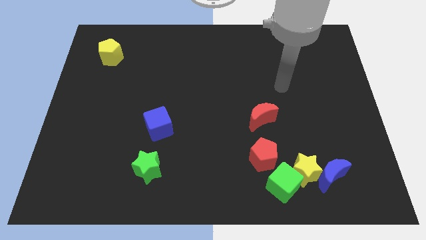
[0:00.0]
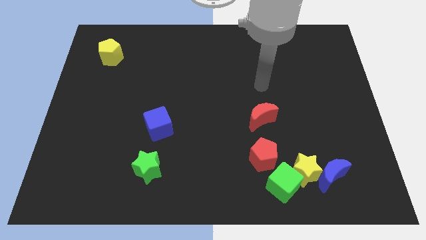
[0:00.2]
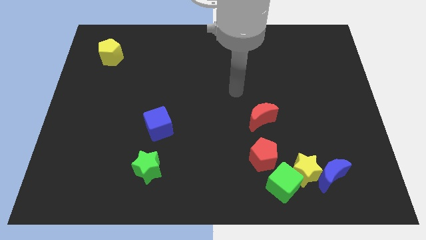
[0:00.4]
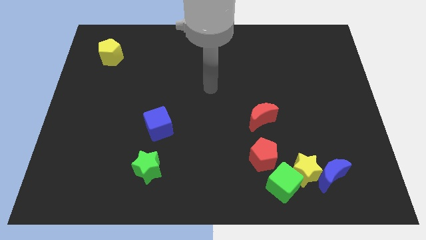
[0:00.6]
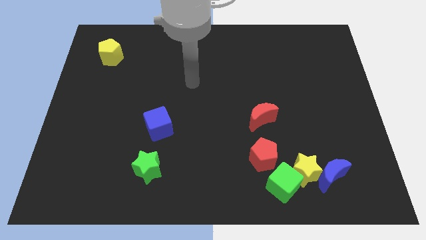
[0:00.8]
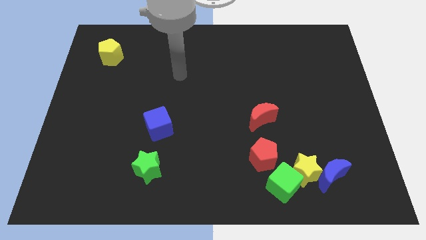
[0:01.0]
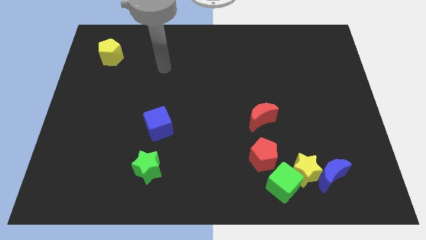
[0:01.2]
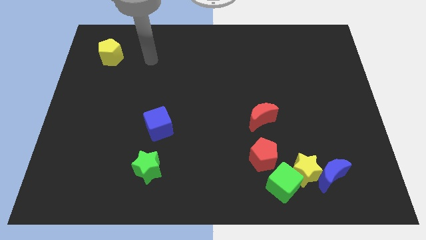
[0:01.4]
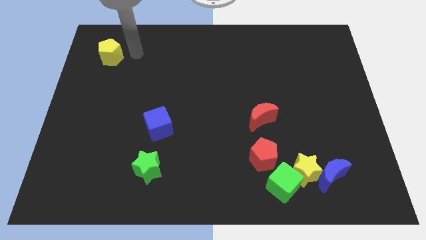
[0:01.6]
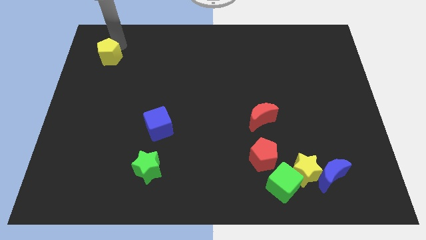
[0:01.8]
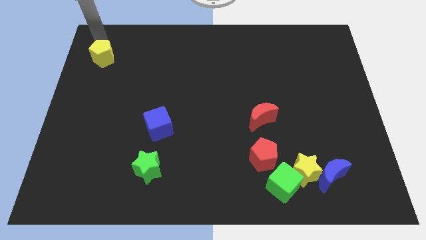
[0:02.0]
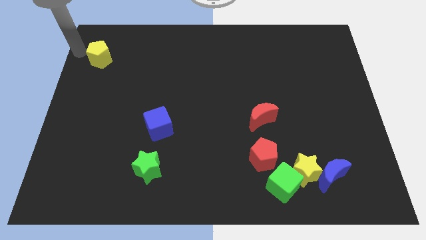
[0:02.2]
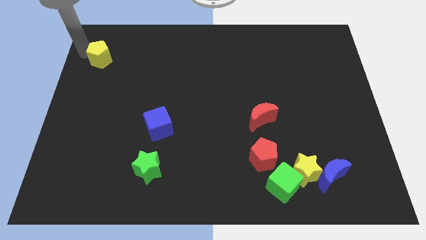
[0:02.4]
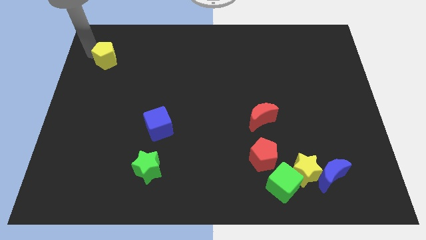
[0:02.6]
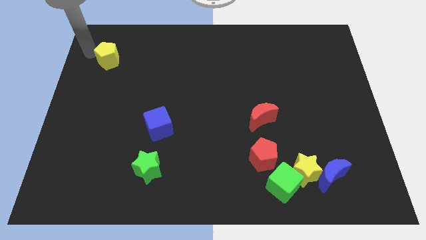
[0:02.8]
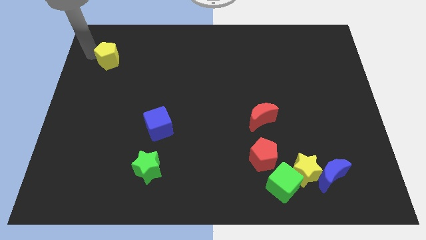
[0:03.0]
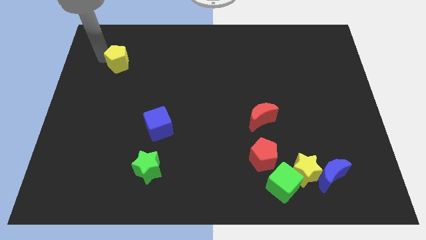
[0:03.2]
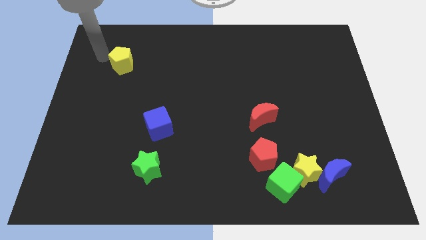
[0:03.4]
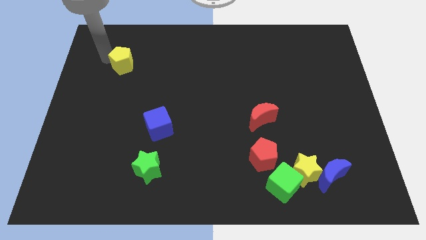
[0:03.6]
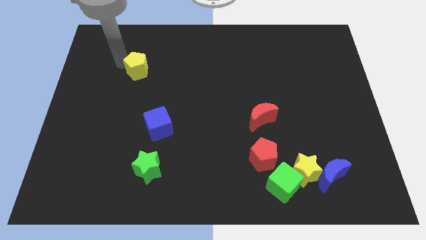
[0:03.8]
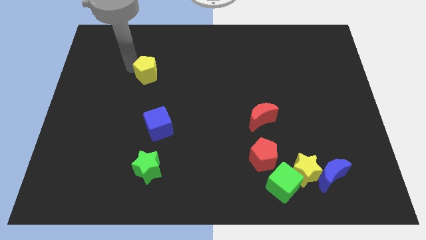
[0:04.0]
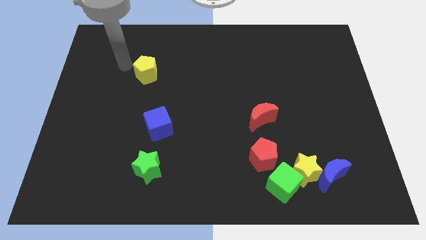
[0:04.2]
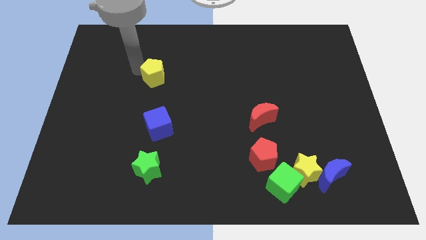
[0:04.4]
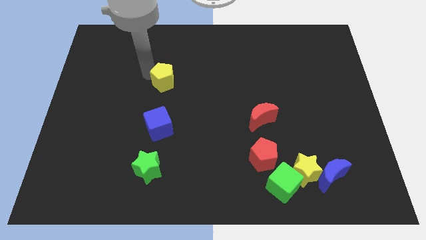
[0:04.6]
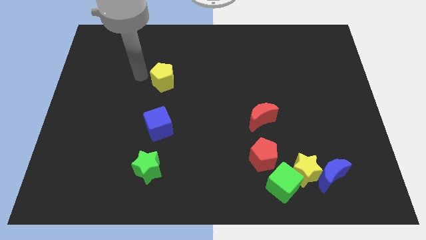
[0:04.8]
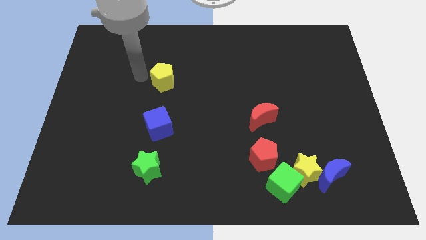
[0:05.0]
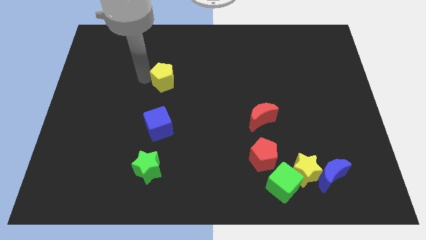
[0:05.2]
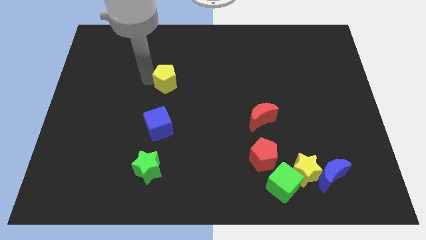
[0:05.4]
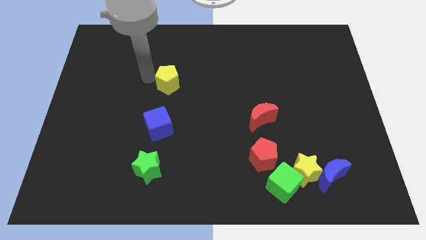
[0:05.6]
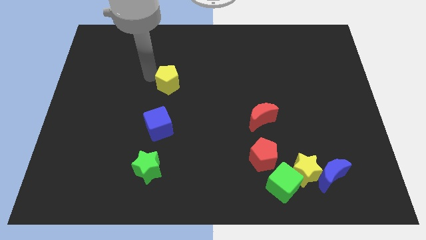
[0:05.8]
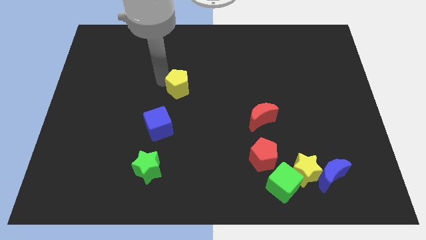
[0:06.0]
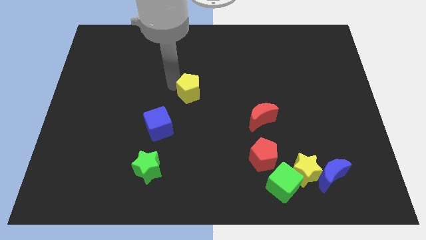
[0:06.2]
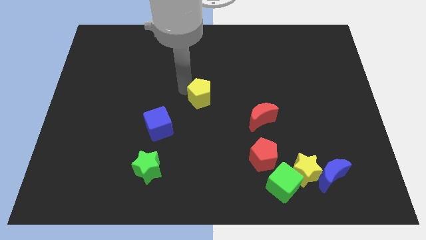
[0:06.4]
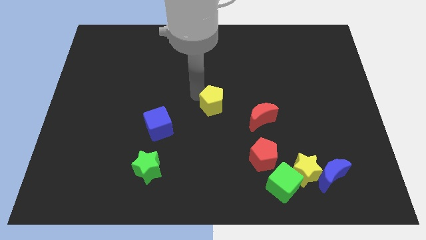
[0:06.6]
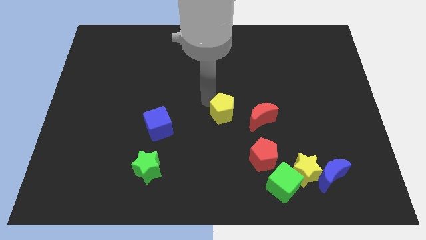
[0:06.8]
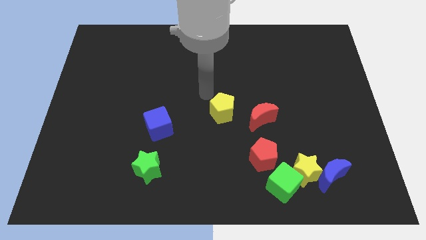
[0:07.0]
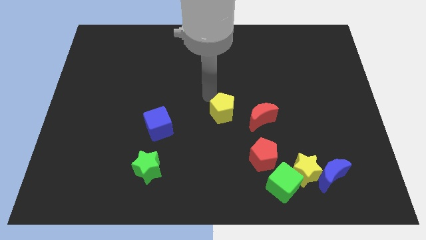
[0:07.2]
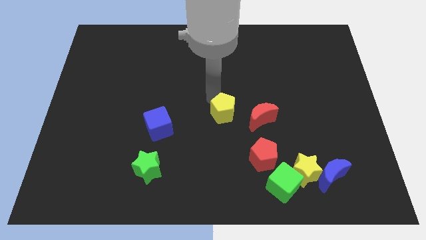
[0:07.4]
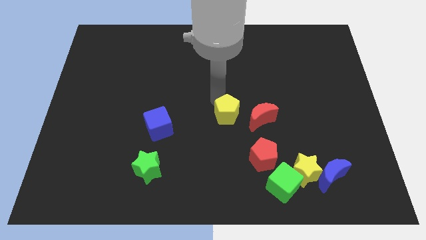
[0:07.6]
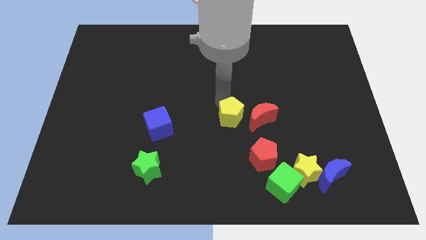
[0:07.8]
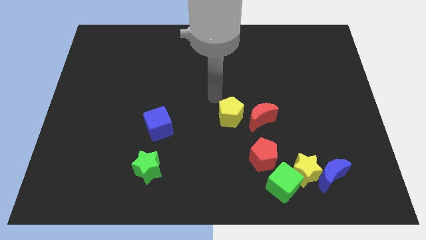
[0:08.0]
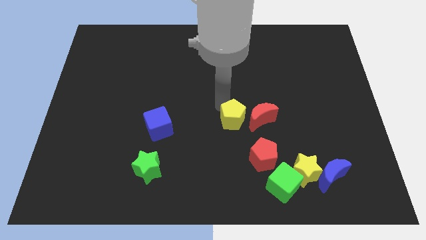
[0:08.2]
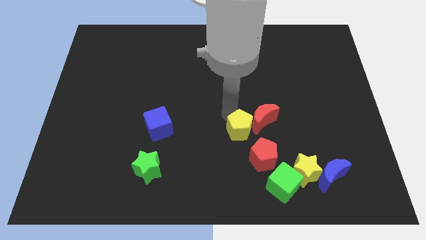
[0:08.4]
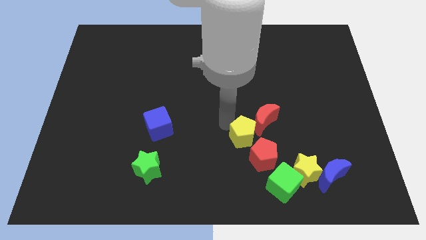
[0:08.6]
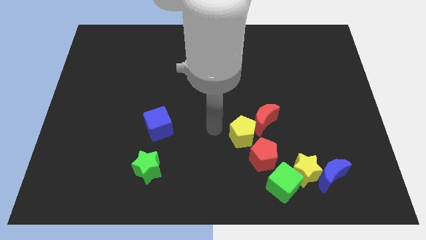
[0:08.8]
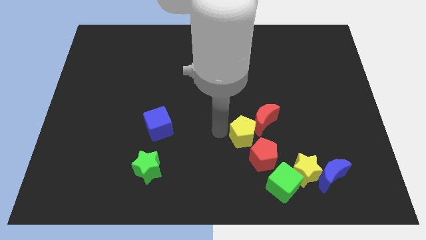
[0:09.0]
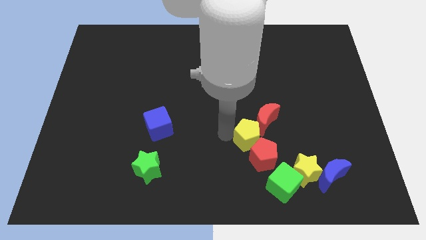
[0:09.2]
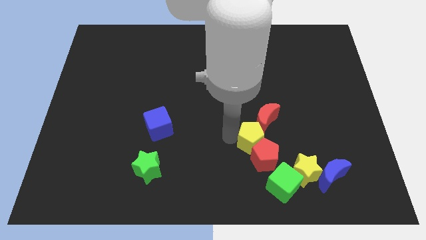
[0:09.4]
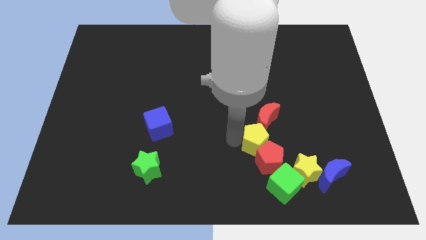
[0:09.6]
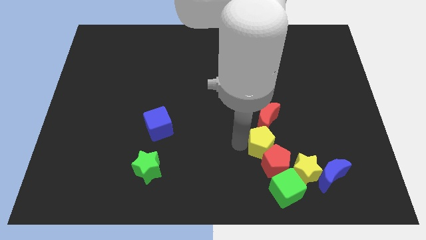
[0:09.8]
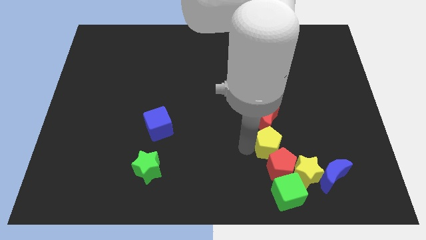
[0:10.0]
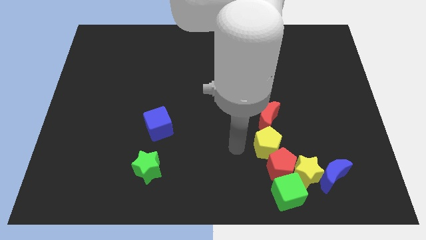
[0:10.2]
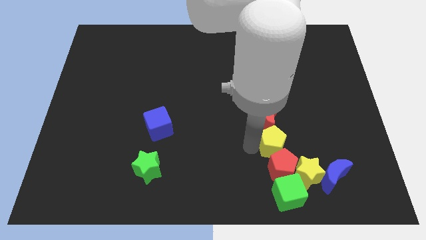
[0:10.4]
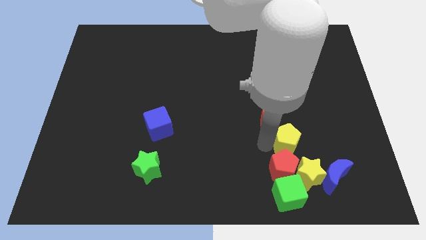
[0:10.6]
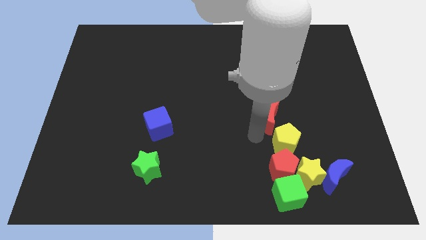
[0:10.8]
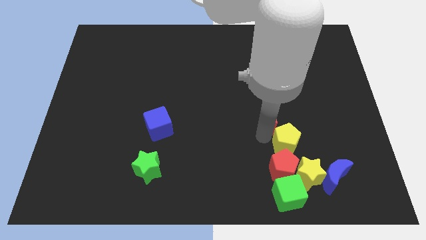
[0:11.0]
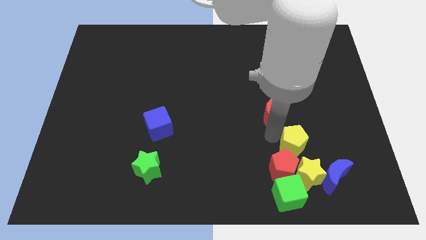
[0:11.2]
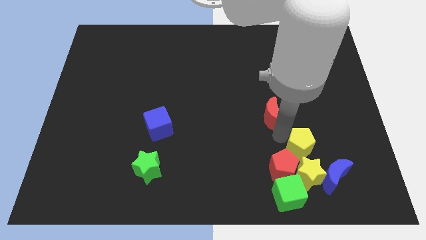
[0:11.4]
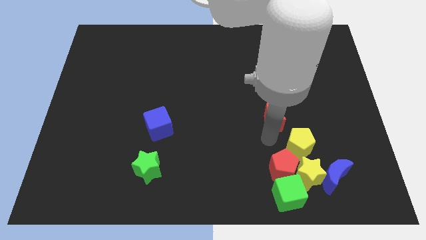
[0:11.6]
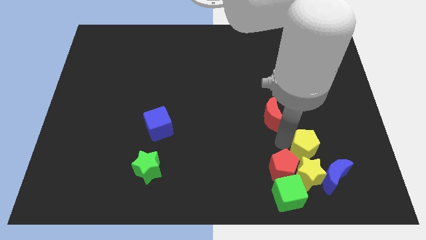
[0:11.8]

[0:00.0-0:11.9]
push the yellow pentagon to the top right side of the yellow star

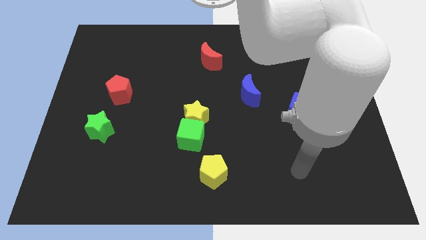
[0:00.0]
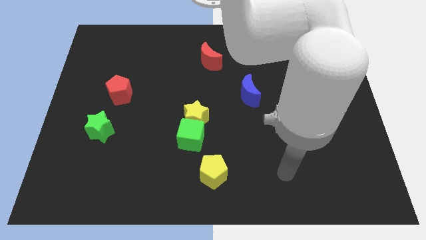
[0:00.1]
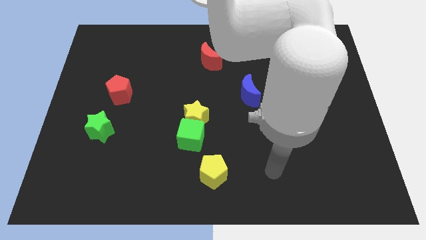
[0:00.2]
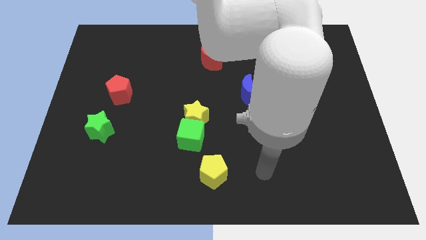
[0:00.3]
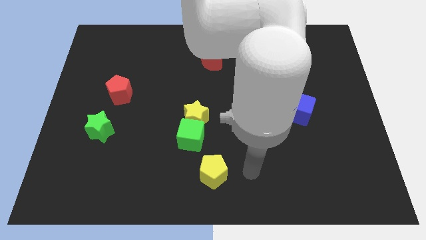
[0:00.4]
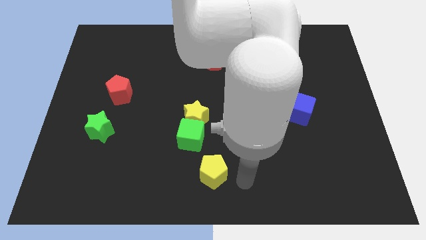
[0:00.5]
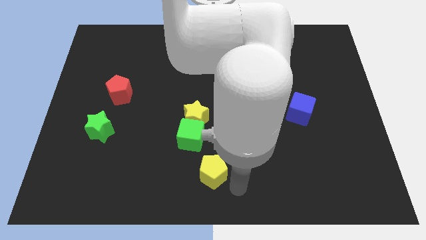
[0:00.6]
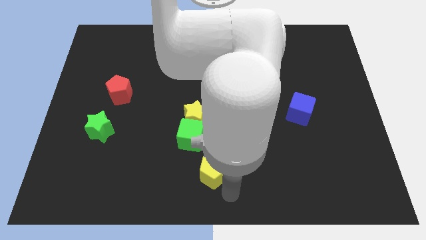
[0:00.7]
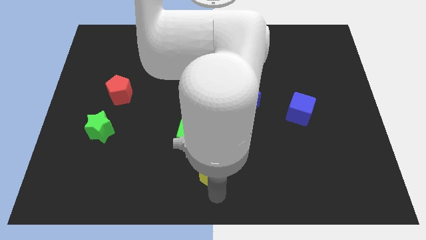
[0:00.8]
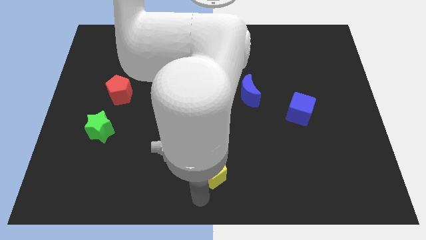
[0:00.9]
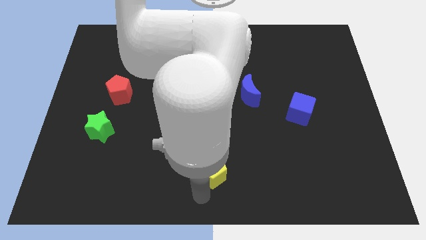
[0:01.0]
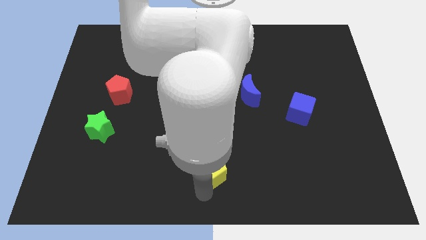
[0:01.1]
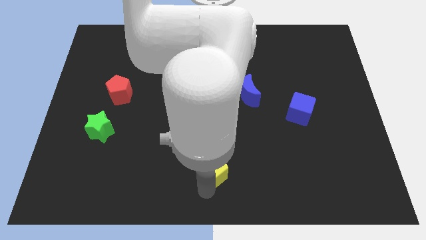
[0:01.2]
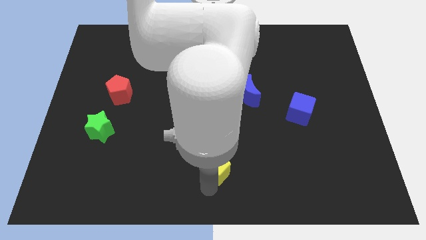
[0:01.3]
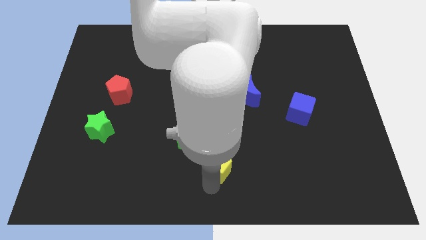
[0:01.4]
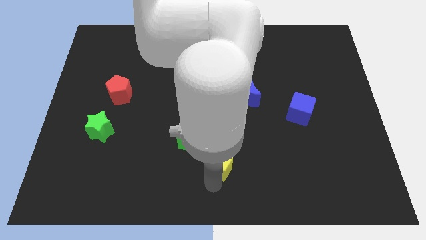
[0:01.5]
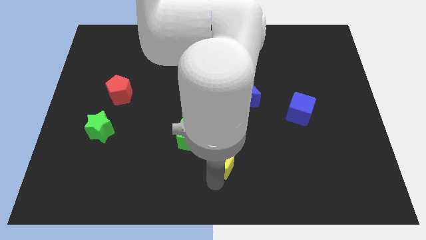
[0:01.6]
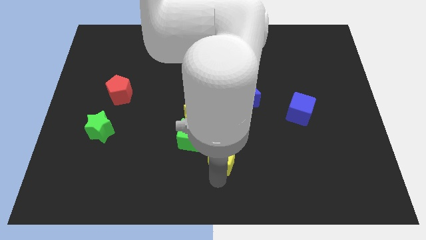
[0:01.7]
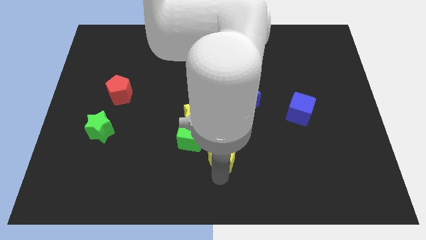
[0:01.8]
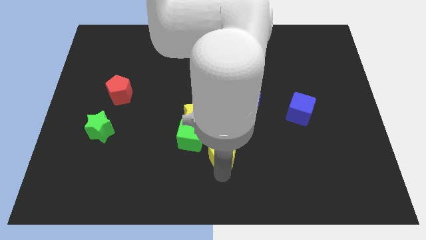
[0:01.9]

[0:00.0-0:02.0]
move the yellow pentagon to the right side of the green cube

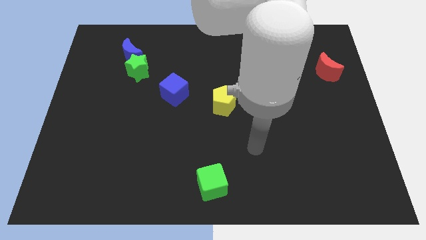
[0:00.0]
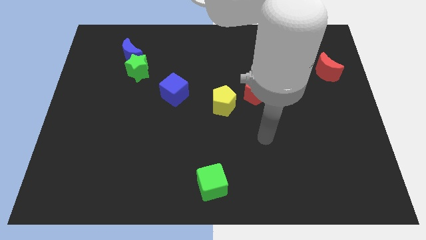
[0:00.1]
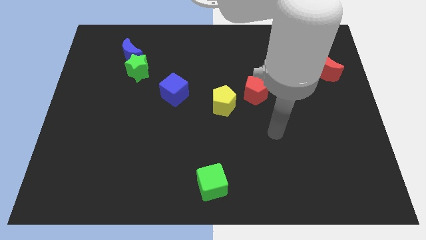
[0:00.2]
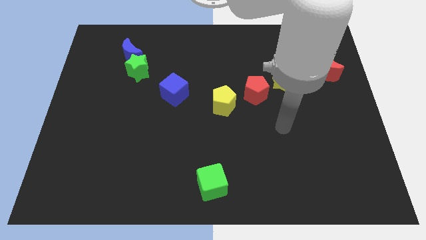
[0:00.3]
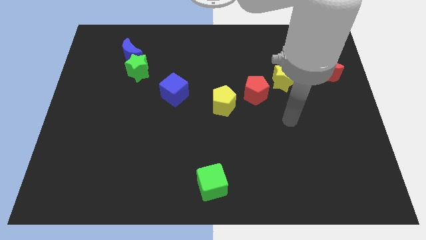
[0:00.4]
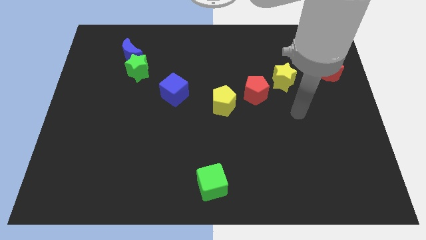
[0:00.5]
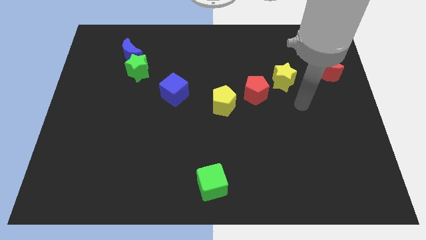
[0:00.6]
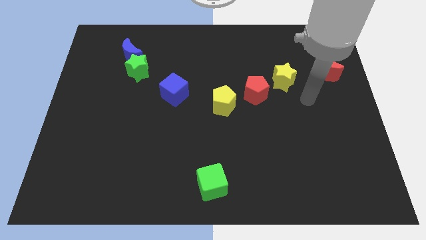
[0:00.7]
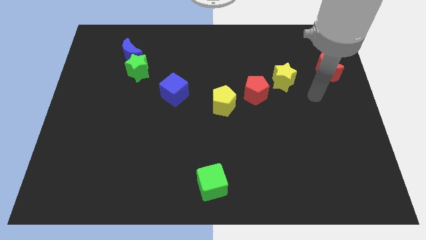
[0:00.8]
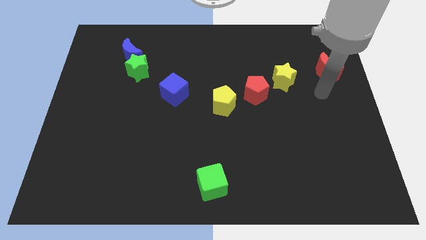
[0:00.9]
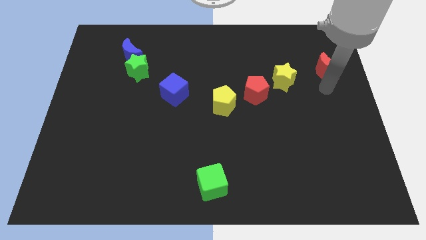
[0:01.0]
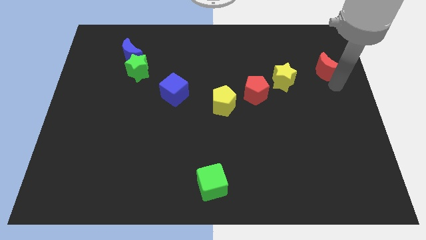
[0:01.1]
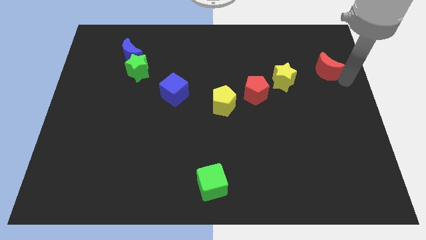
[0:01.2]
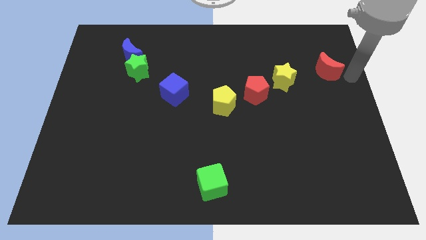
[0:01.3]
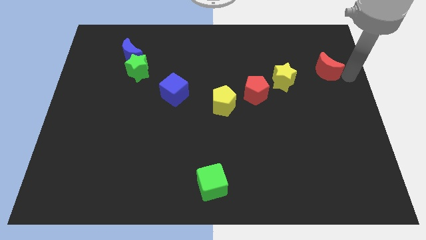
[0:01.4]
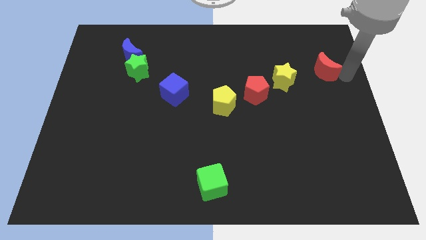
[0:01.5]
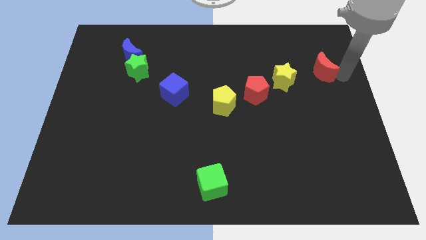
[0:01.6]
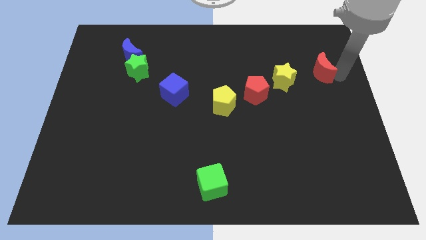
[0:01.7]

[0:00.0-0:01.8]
slide the red moon to the top right side of the yellow star
